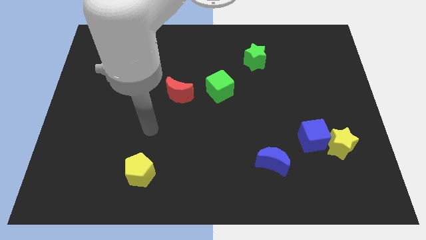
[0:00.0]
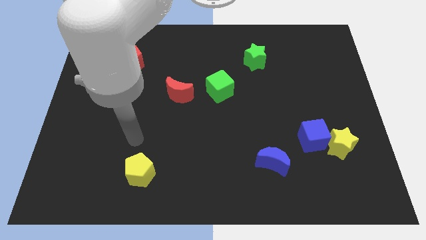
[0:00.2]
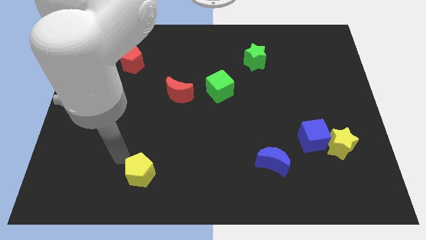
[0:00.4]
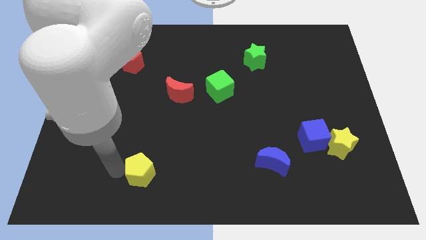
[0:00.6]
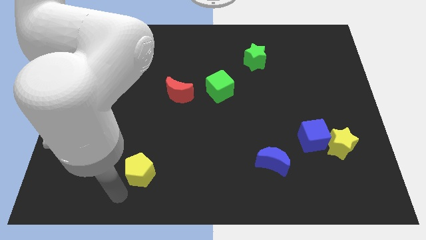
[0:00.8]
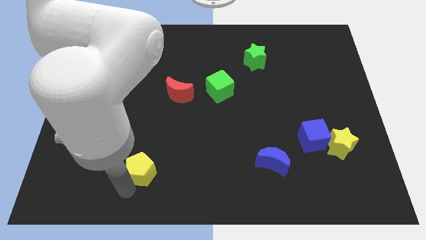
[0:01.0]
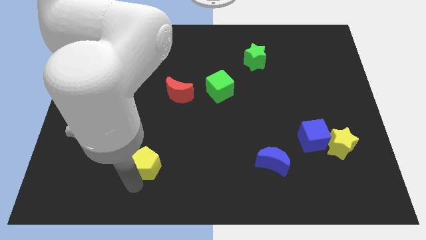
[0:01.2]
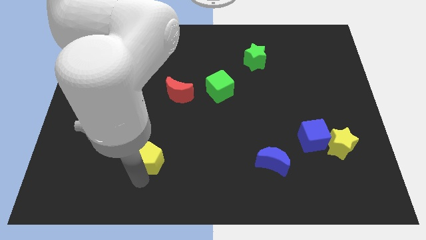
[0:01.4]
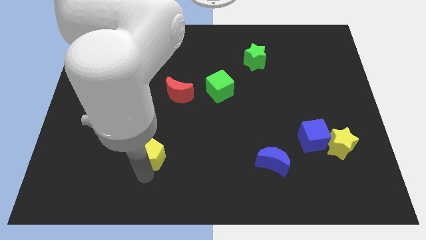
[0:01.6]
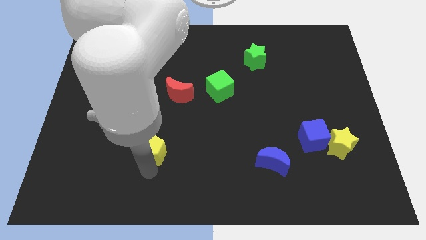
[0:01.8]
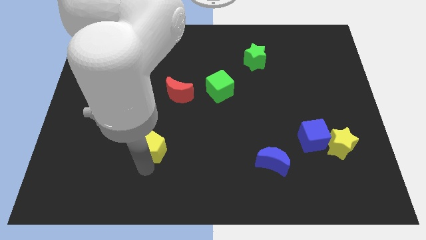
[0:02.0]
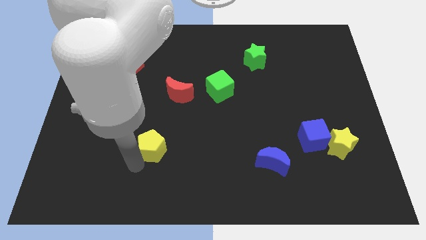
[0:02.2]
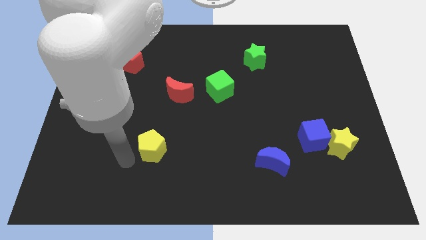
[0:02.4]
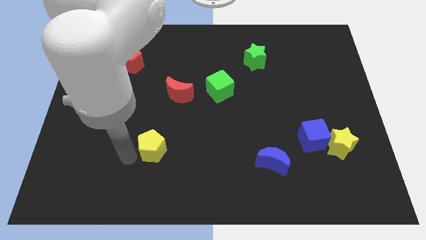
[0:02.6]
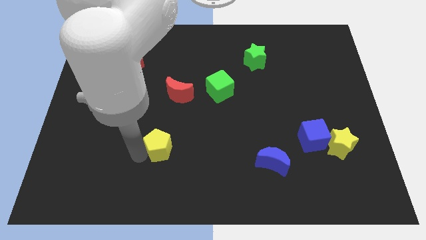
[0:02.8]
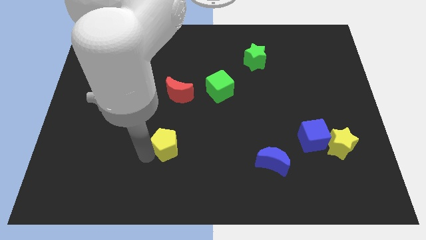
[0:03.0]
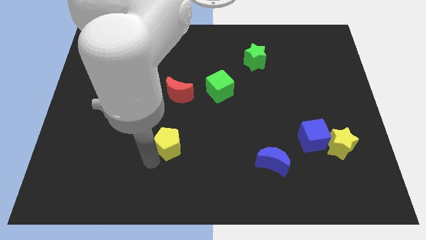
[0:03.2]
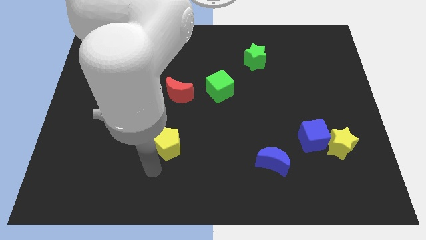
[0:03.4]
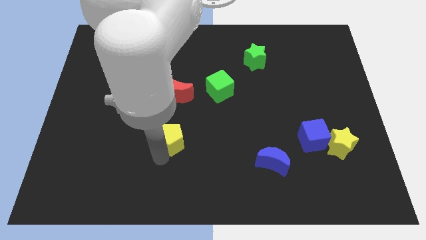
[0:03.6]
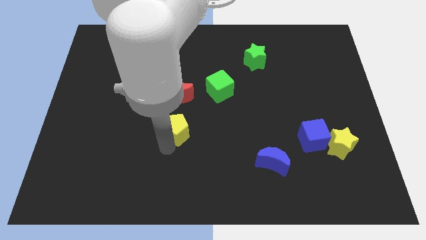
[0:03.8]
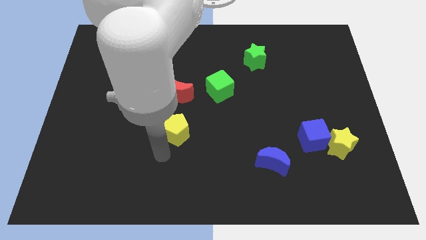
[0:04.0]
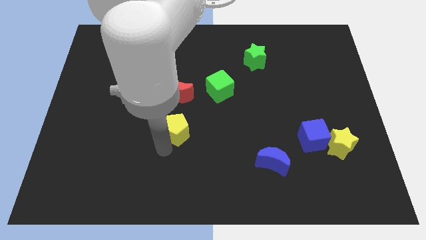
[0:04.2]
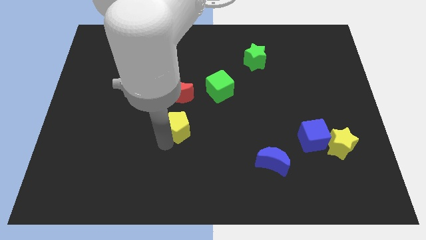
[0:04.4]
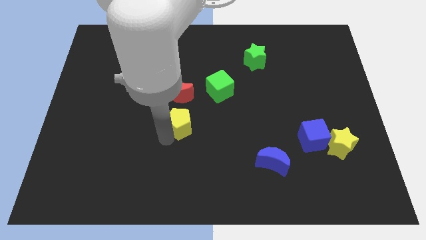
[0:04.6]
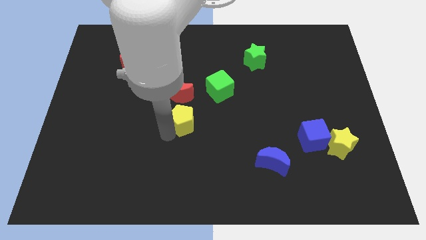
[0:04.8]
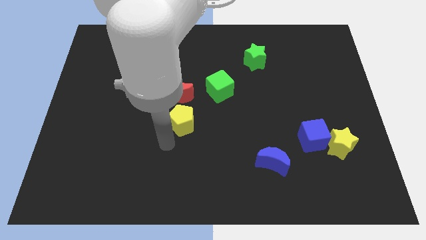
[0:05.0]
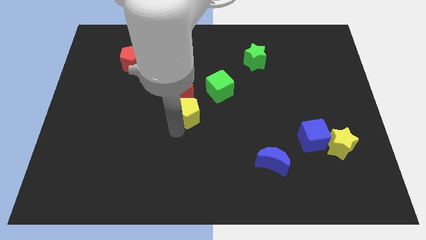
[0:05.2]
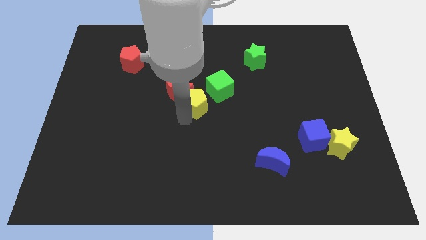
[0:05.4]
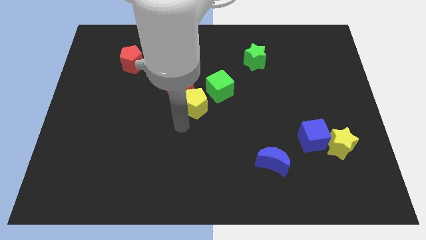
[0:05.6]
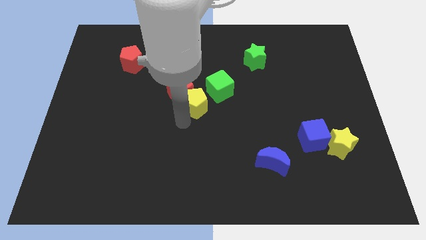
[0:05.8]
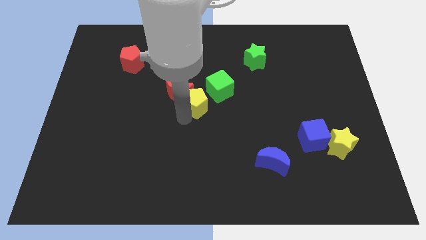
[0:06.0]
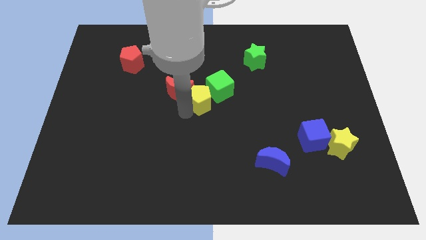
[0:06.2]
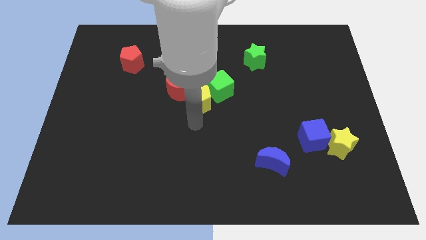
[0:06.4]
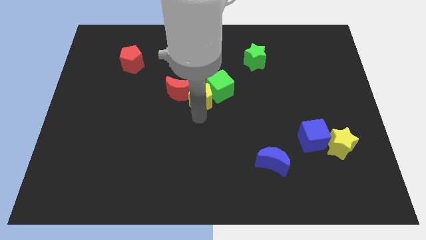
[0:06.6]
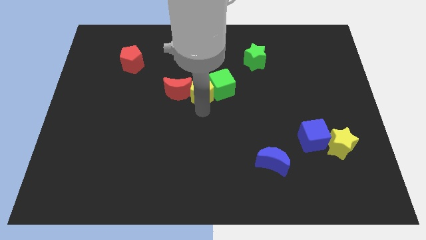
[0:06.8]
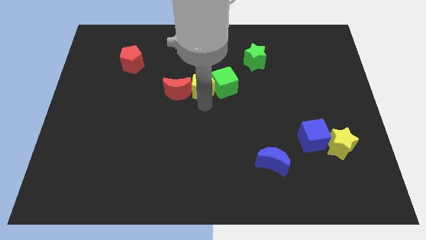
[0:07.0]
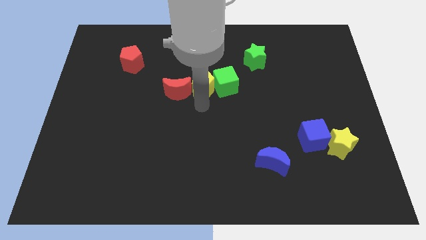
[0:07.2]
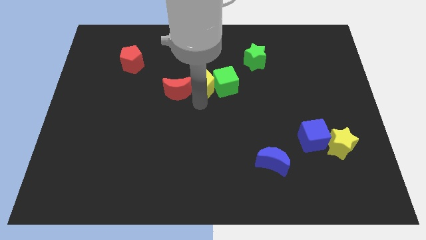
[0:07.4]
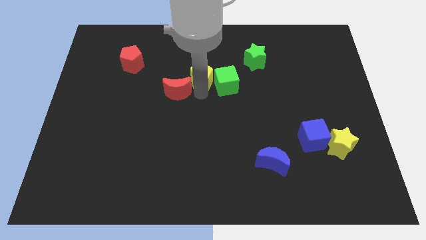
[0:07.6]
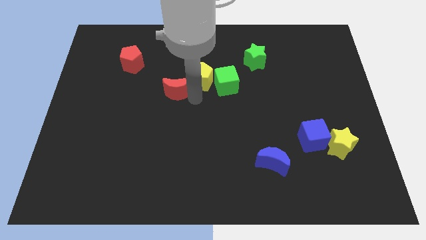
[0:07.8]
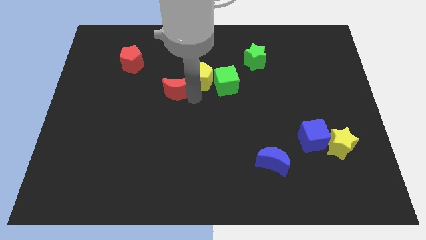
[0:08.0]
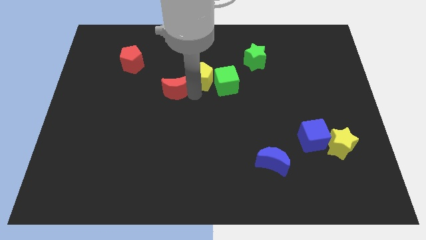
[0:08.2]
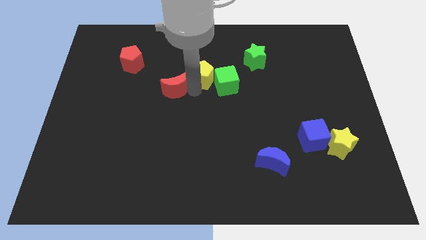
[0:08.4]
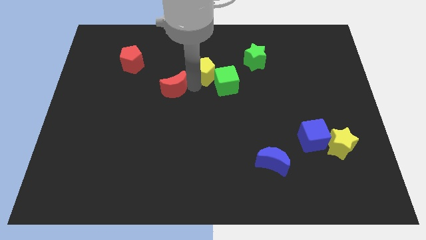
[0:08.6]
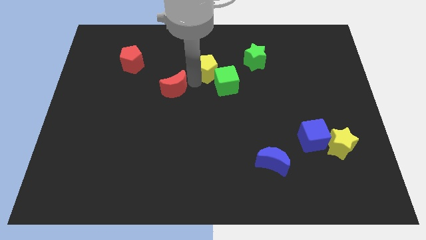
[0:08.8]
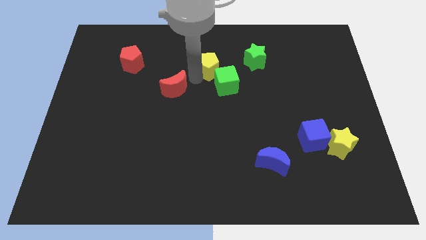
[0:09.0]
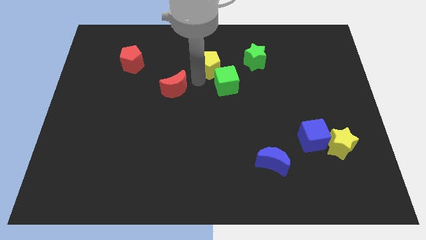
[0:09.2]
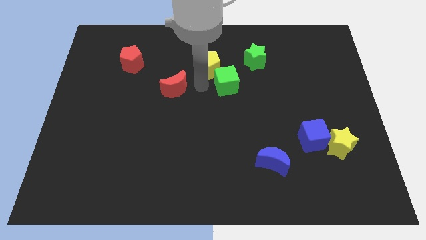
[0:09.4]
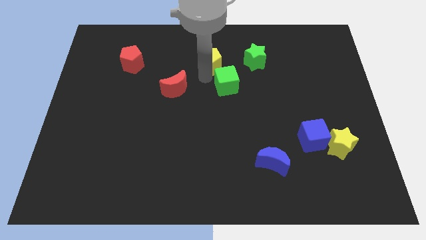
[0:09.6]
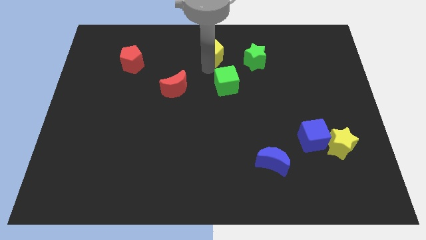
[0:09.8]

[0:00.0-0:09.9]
move the yellow pentagon to the top

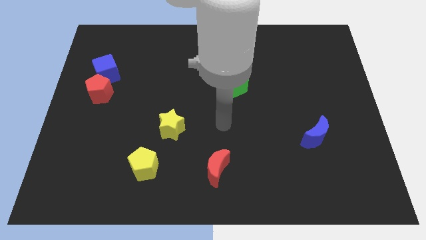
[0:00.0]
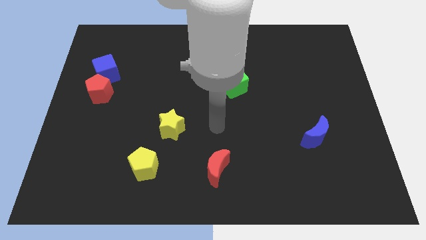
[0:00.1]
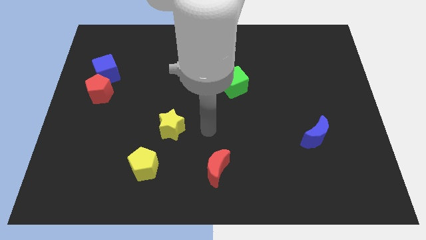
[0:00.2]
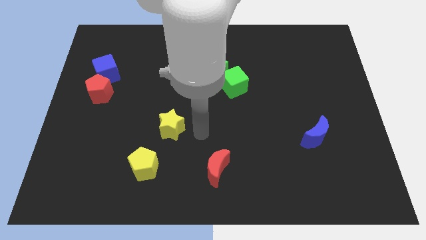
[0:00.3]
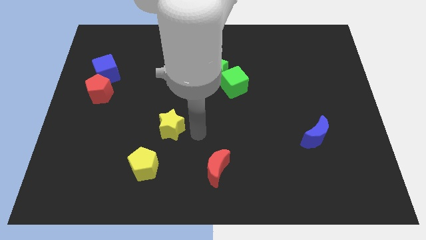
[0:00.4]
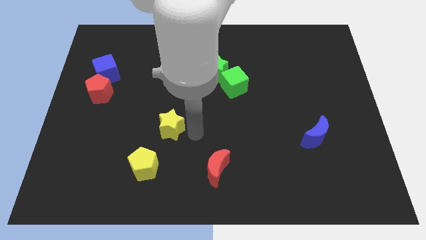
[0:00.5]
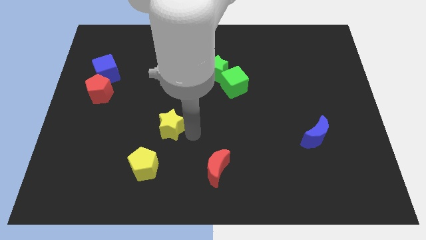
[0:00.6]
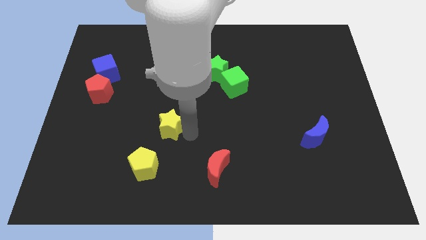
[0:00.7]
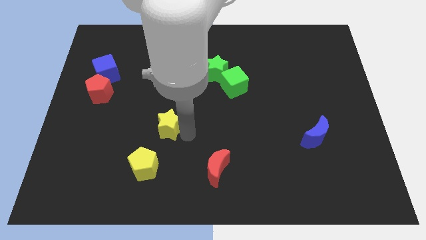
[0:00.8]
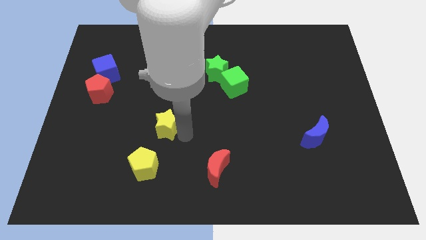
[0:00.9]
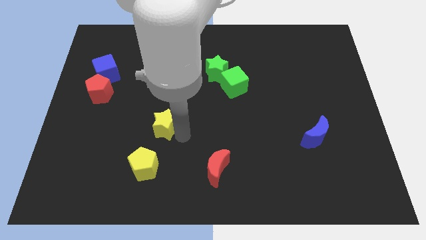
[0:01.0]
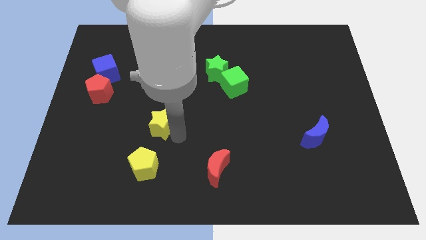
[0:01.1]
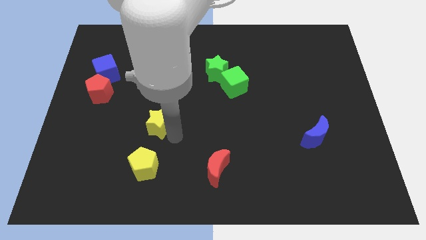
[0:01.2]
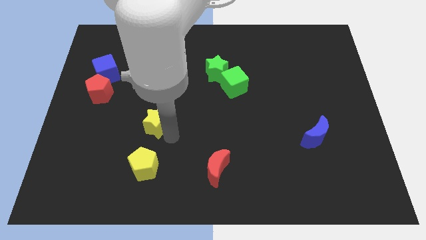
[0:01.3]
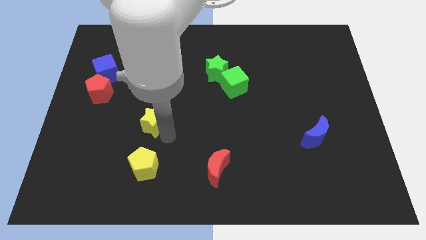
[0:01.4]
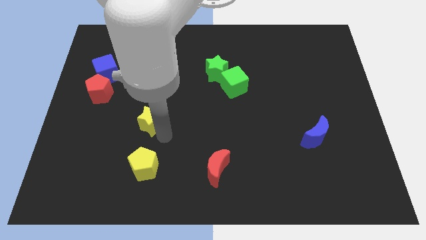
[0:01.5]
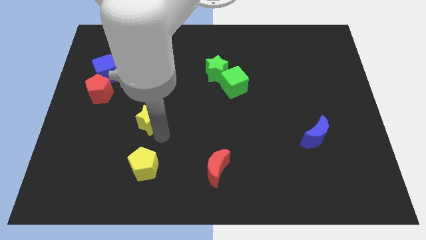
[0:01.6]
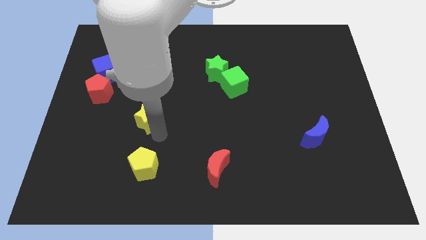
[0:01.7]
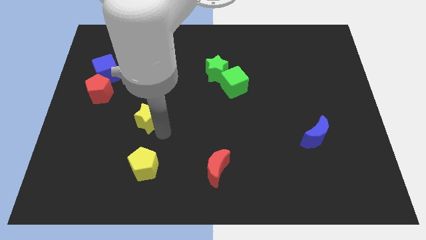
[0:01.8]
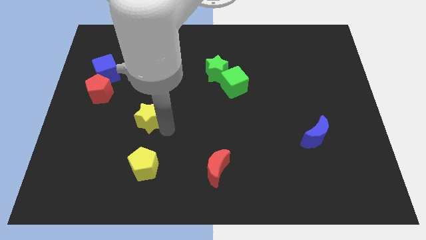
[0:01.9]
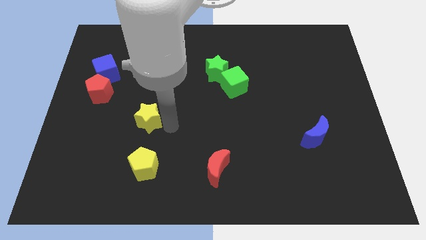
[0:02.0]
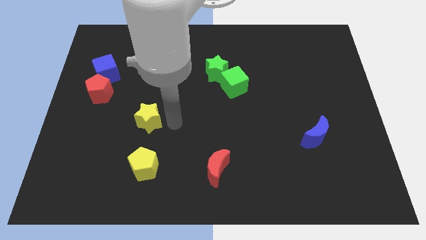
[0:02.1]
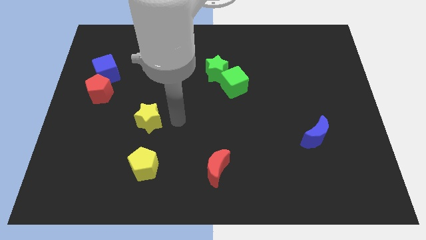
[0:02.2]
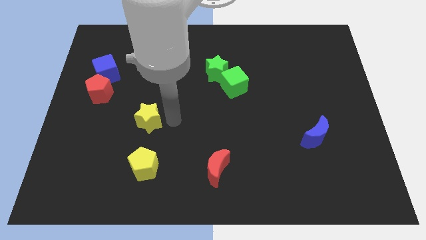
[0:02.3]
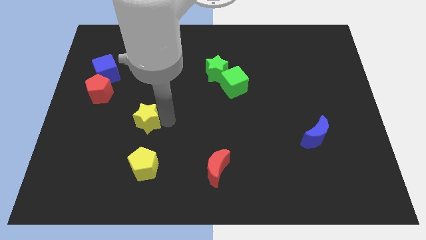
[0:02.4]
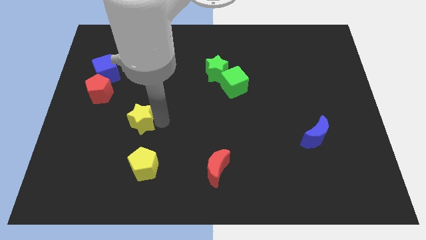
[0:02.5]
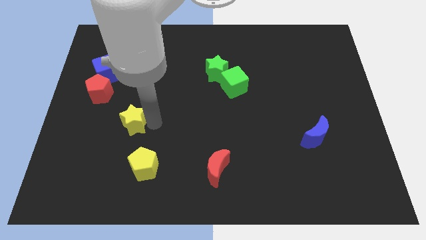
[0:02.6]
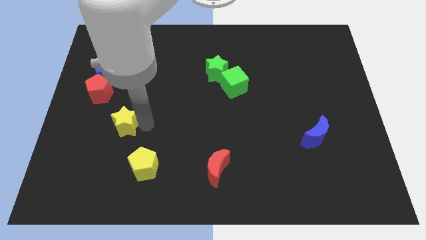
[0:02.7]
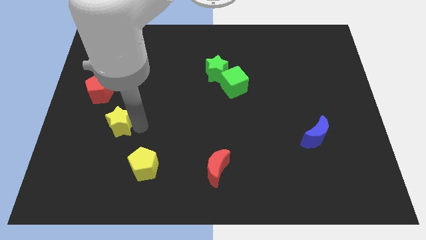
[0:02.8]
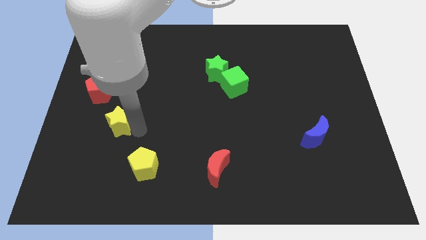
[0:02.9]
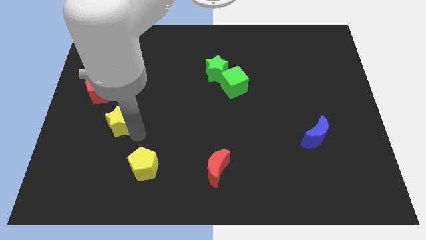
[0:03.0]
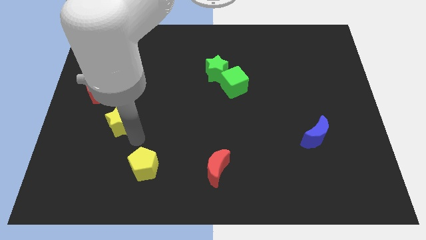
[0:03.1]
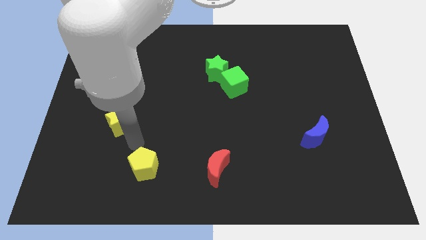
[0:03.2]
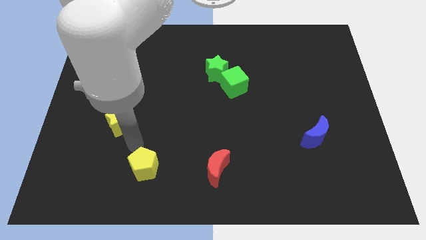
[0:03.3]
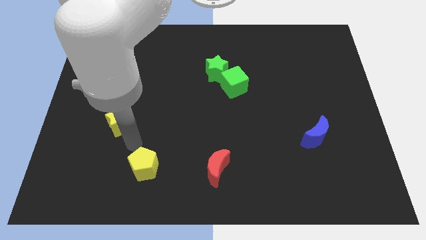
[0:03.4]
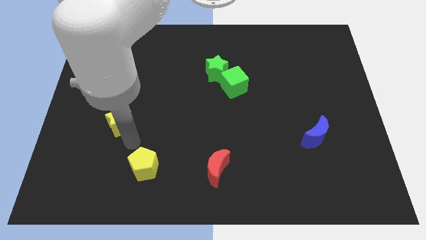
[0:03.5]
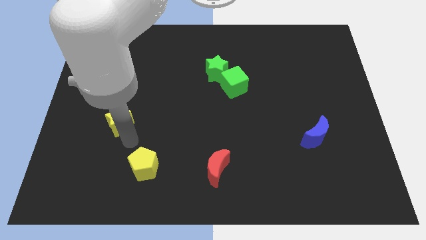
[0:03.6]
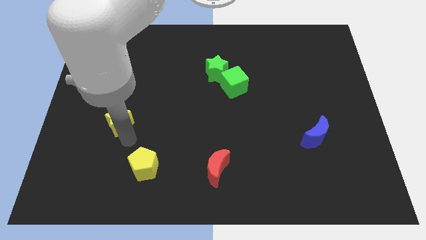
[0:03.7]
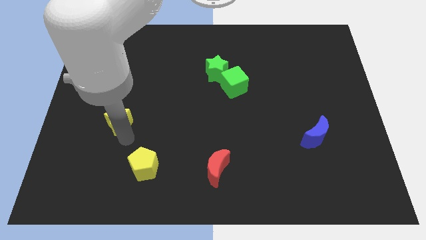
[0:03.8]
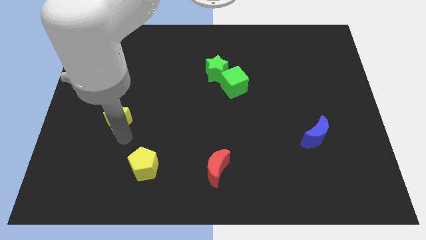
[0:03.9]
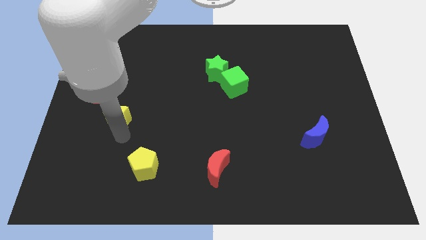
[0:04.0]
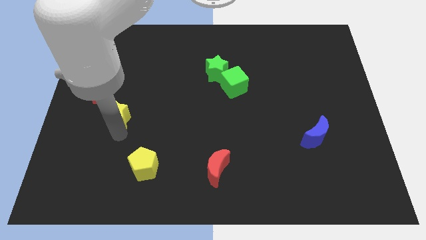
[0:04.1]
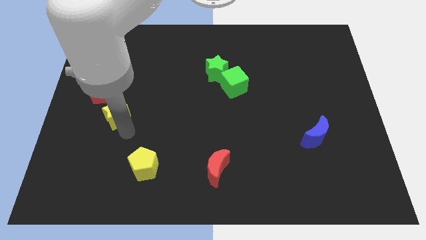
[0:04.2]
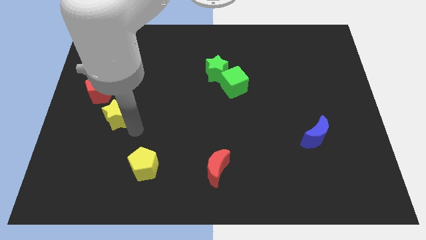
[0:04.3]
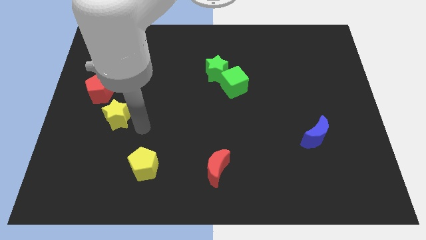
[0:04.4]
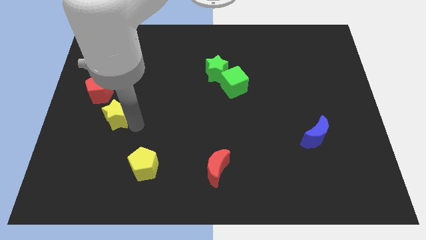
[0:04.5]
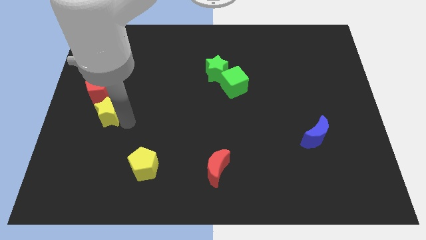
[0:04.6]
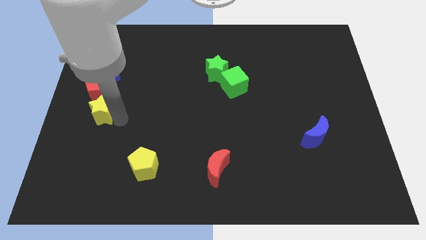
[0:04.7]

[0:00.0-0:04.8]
move the yellow star to the left side of the board
